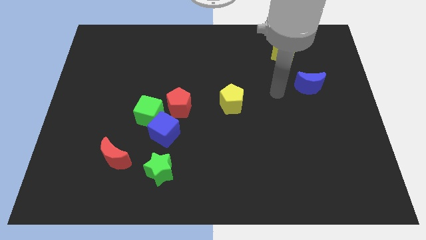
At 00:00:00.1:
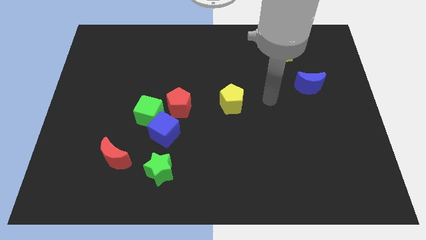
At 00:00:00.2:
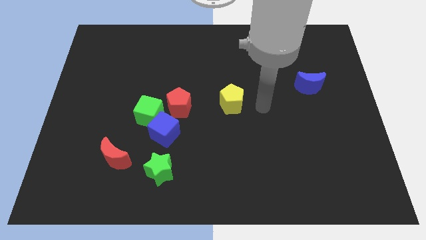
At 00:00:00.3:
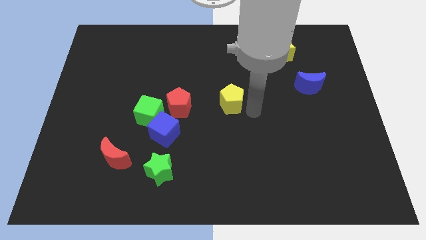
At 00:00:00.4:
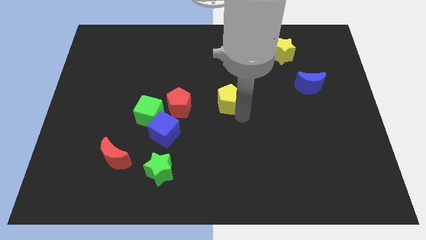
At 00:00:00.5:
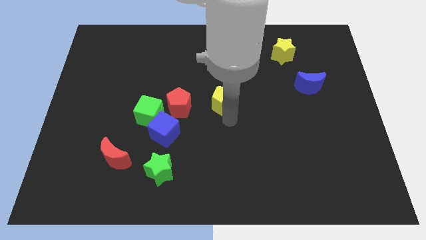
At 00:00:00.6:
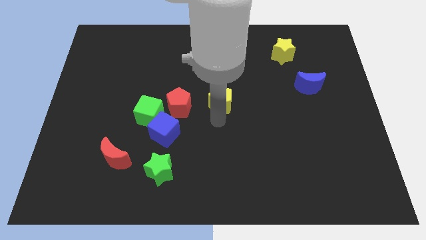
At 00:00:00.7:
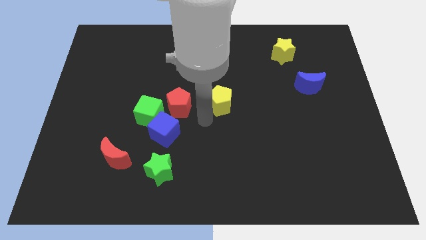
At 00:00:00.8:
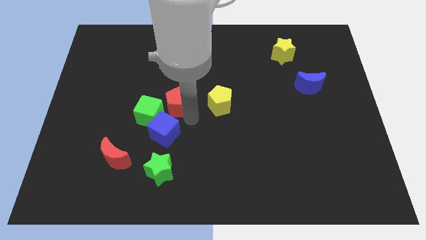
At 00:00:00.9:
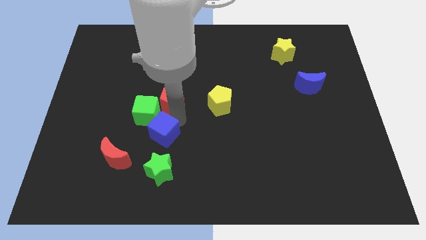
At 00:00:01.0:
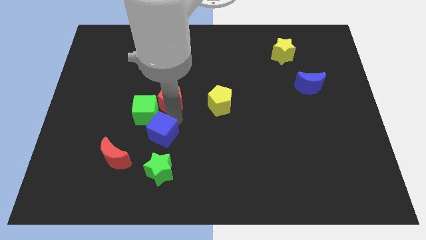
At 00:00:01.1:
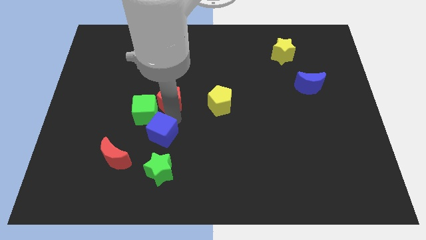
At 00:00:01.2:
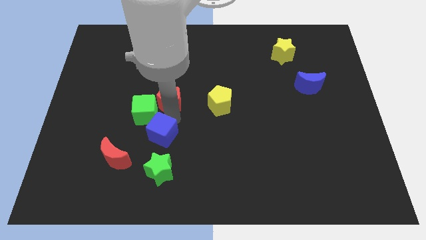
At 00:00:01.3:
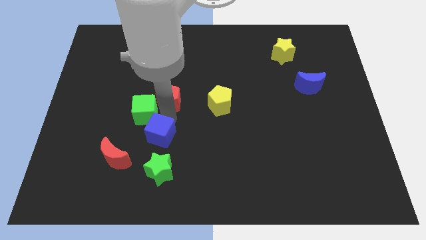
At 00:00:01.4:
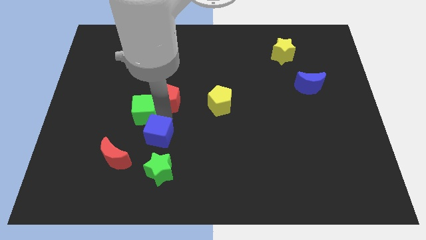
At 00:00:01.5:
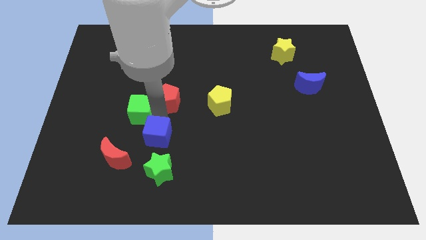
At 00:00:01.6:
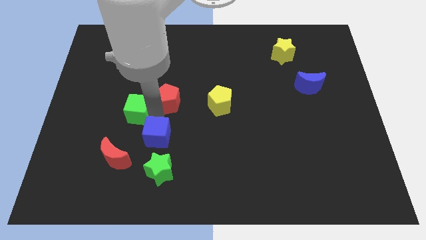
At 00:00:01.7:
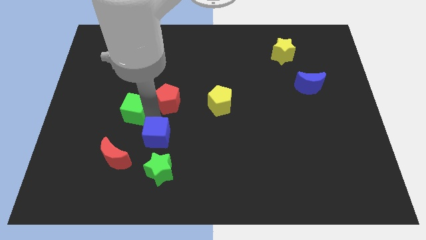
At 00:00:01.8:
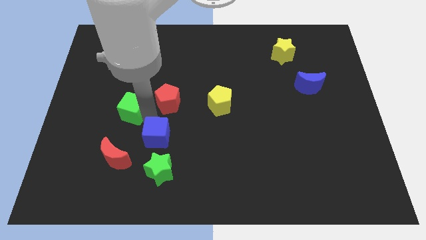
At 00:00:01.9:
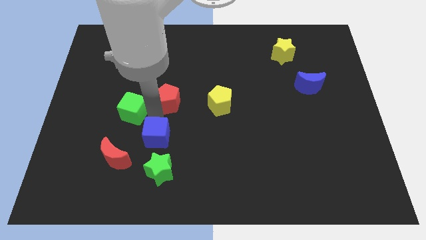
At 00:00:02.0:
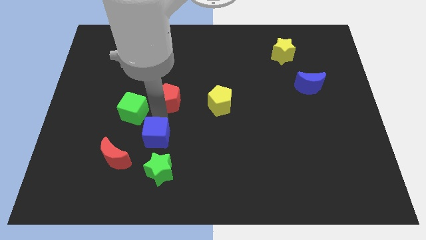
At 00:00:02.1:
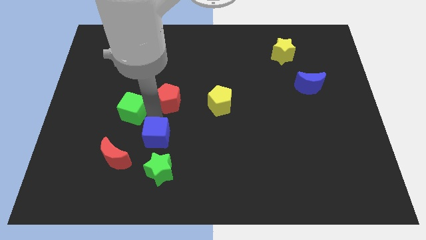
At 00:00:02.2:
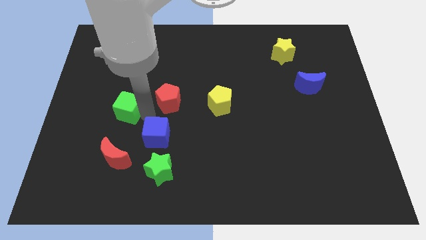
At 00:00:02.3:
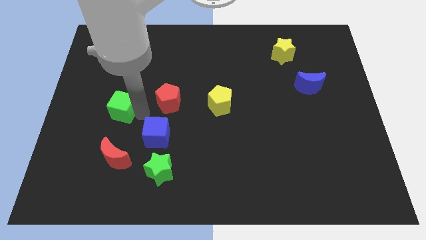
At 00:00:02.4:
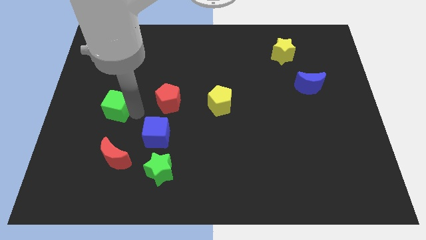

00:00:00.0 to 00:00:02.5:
separate the green cube from the blue cube and red pentagon

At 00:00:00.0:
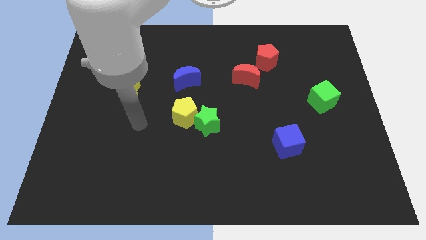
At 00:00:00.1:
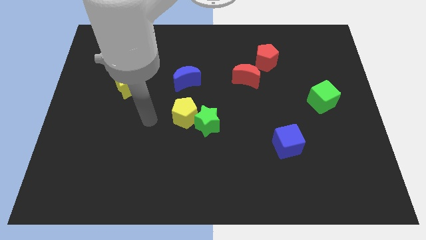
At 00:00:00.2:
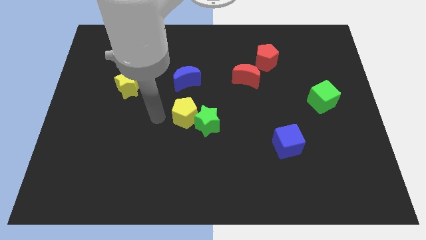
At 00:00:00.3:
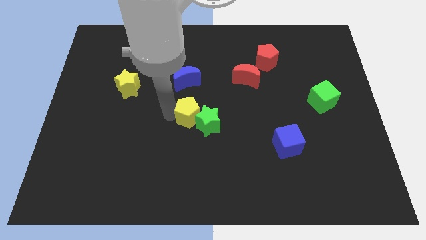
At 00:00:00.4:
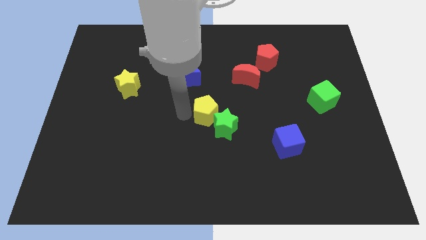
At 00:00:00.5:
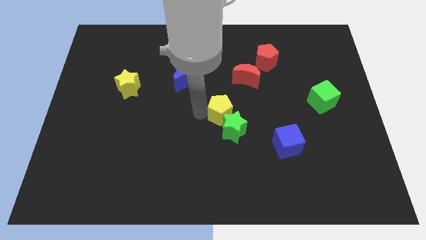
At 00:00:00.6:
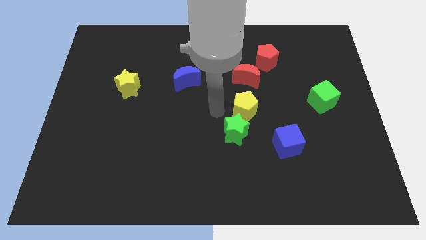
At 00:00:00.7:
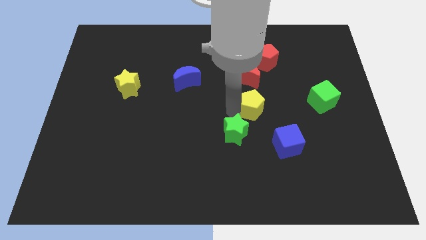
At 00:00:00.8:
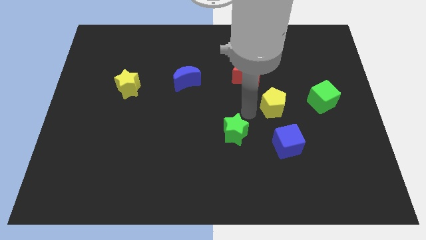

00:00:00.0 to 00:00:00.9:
move the green star away from the yellow pentagon

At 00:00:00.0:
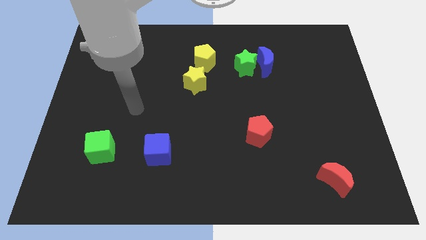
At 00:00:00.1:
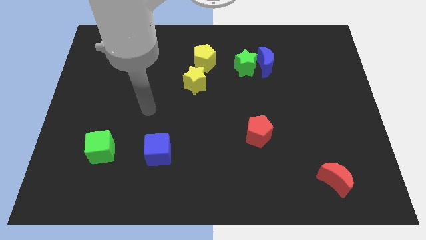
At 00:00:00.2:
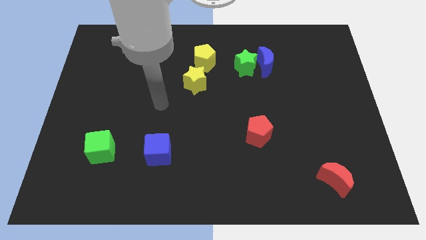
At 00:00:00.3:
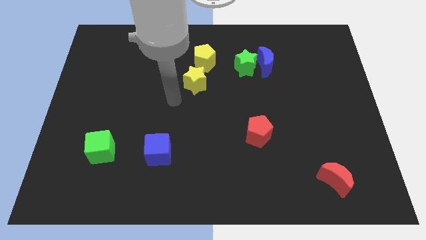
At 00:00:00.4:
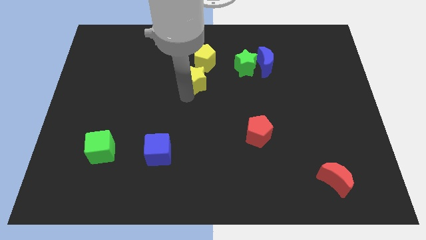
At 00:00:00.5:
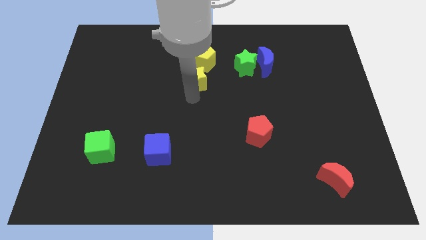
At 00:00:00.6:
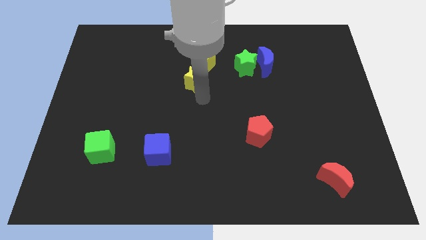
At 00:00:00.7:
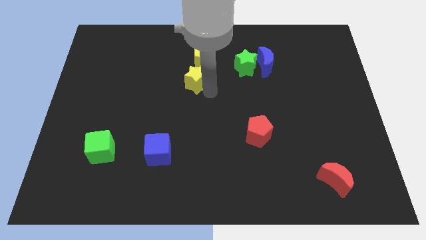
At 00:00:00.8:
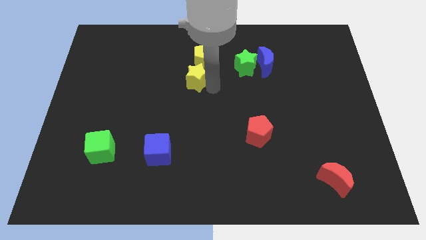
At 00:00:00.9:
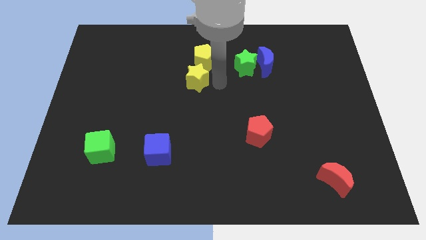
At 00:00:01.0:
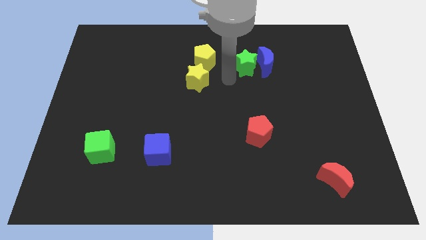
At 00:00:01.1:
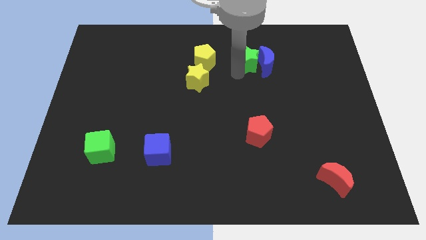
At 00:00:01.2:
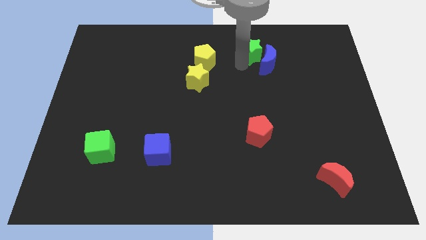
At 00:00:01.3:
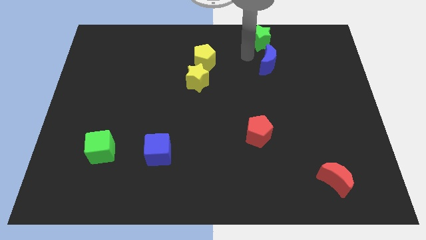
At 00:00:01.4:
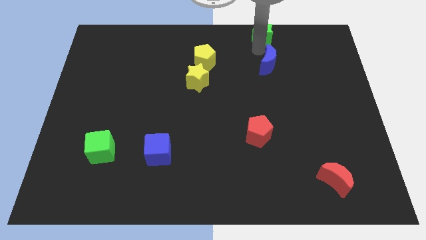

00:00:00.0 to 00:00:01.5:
pull the blue moon apart from the green star

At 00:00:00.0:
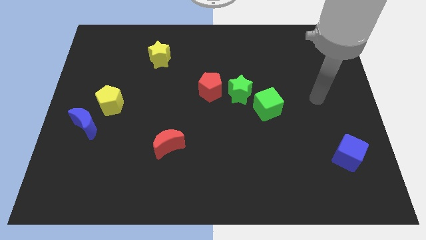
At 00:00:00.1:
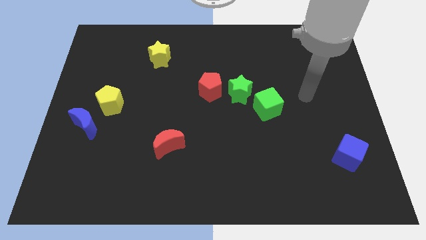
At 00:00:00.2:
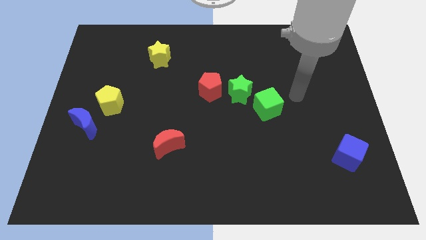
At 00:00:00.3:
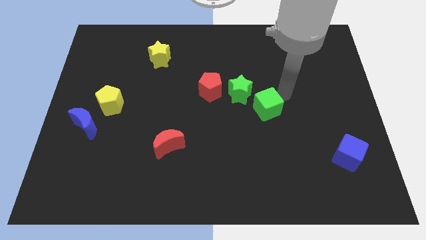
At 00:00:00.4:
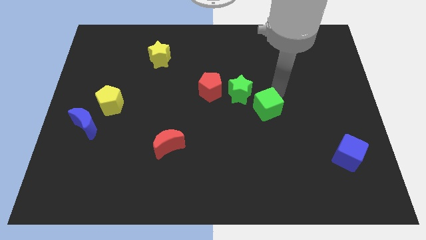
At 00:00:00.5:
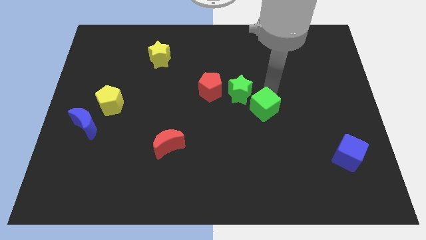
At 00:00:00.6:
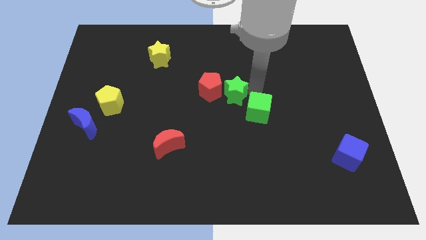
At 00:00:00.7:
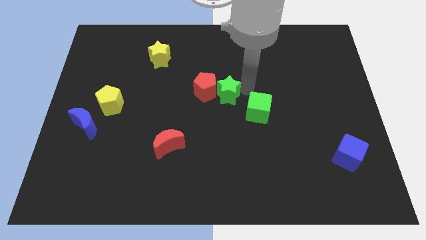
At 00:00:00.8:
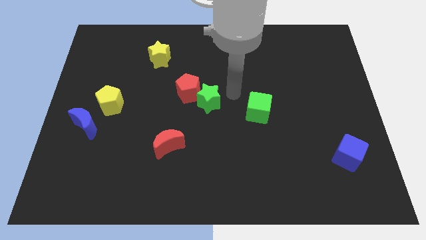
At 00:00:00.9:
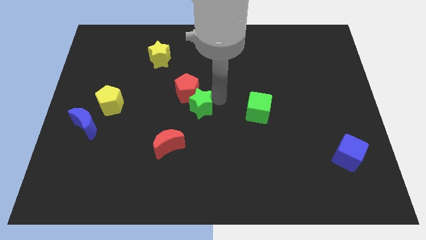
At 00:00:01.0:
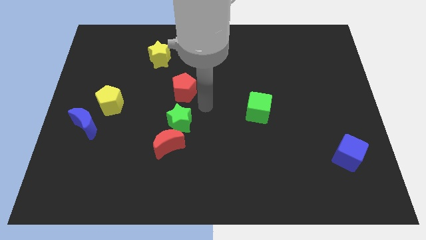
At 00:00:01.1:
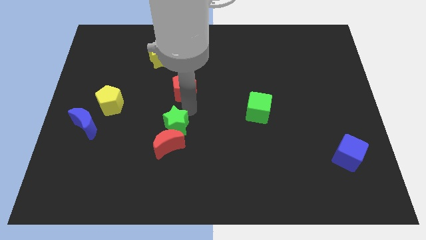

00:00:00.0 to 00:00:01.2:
move the red pentagon away from the green star

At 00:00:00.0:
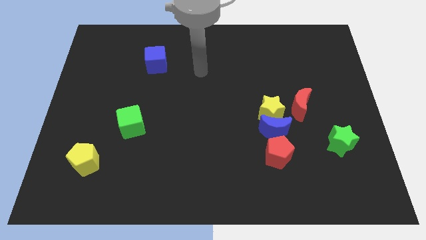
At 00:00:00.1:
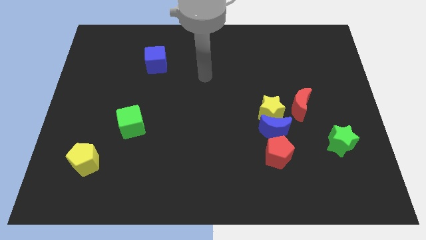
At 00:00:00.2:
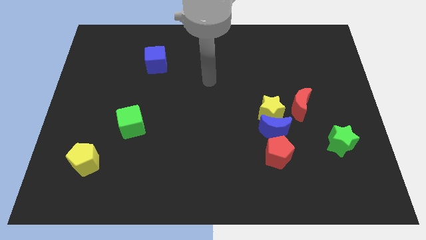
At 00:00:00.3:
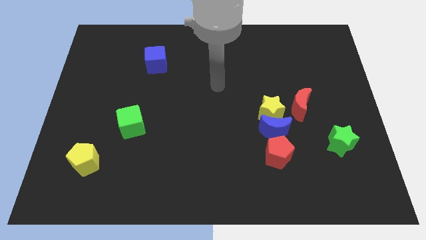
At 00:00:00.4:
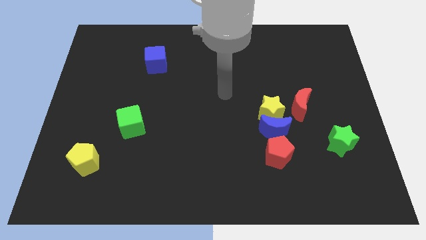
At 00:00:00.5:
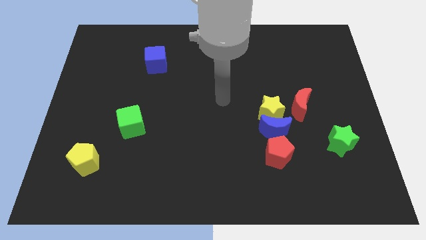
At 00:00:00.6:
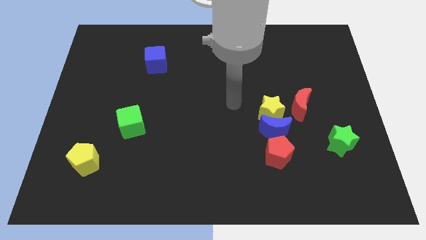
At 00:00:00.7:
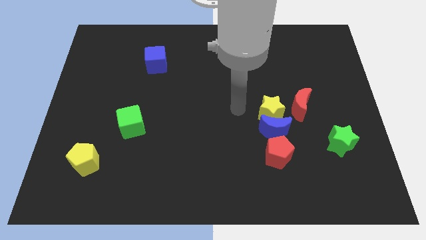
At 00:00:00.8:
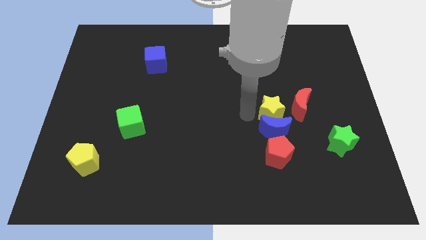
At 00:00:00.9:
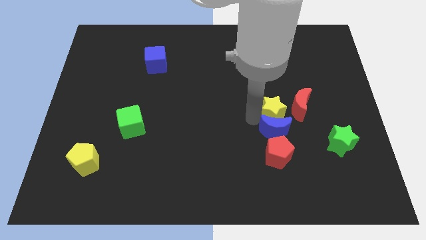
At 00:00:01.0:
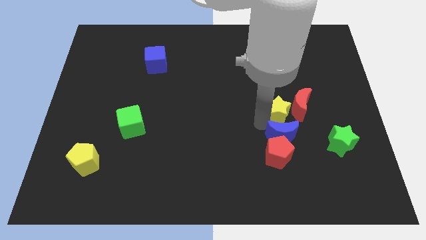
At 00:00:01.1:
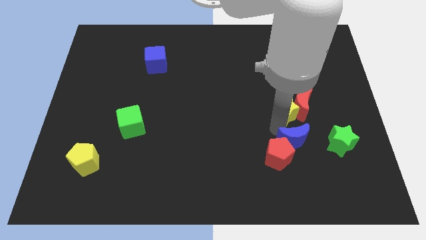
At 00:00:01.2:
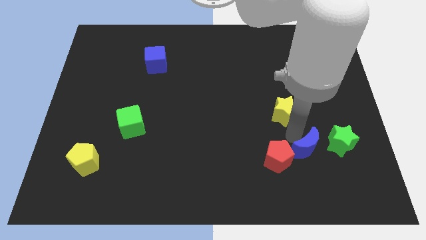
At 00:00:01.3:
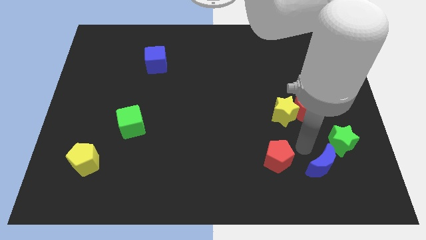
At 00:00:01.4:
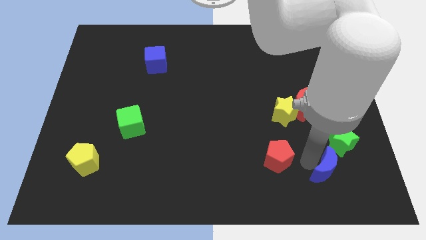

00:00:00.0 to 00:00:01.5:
pull the red pentagon apart from the blue moon

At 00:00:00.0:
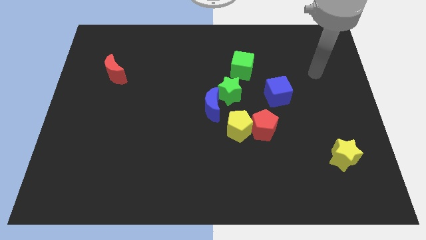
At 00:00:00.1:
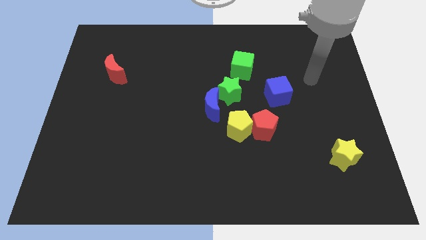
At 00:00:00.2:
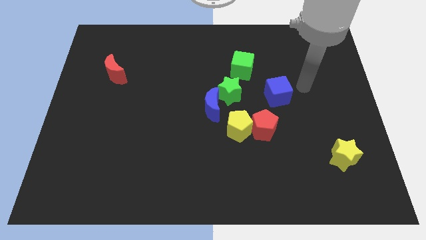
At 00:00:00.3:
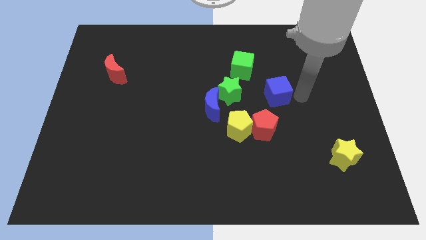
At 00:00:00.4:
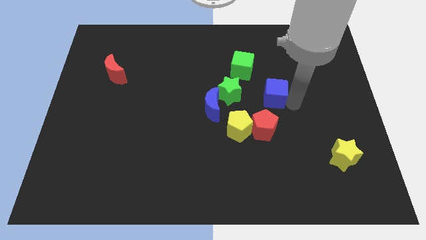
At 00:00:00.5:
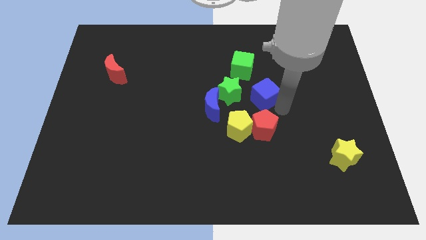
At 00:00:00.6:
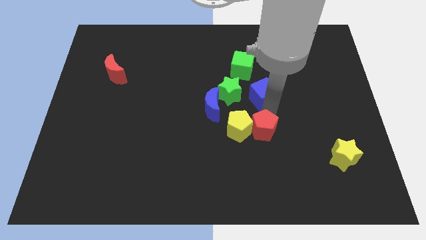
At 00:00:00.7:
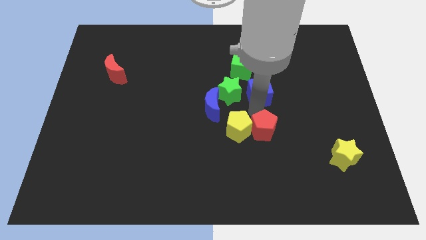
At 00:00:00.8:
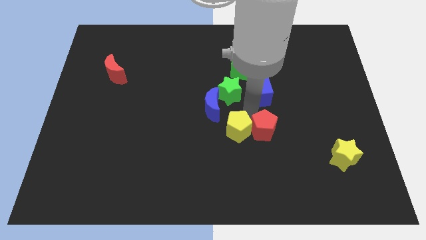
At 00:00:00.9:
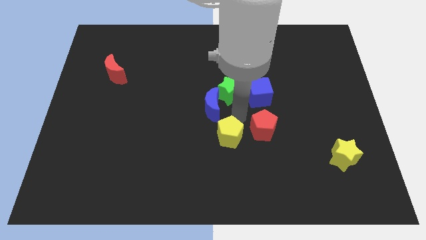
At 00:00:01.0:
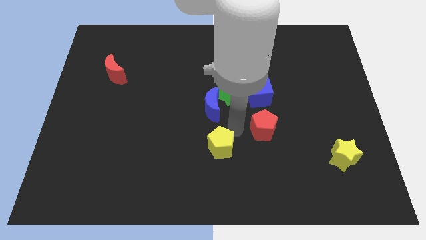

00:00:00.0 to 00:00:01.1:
pull the red pentagon apart from the yellow pentagon

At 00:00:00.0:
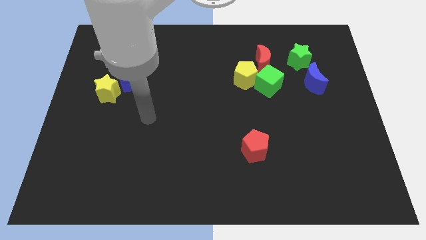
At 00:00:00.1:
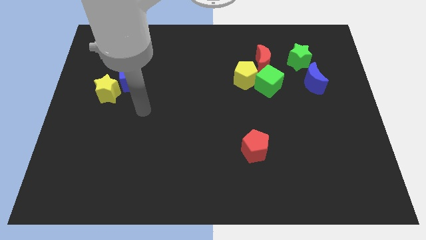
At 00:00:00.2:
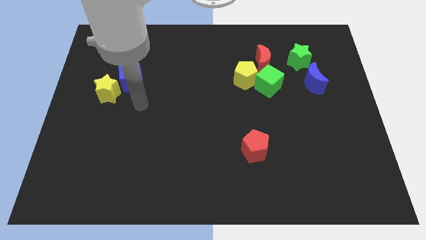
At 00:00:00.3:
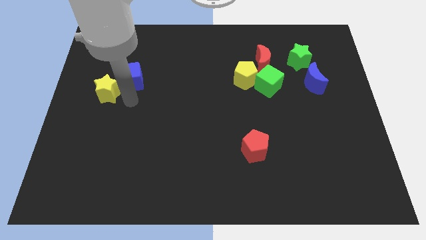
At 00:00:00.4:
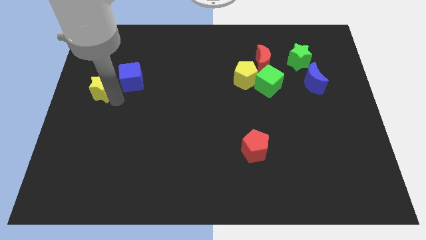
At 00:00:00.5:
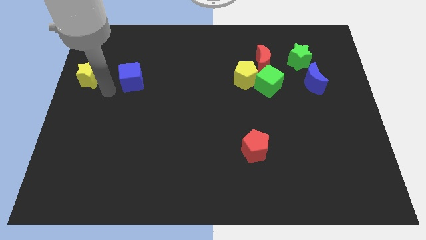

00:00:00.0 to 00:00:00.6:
move the blue cube away from the yellow star
